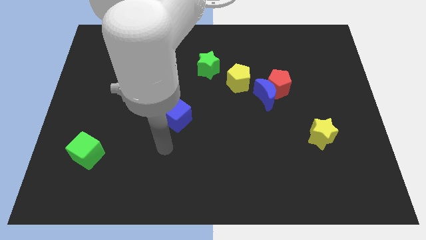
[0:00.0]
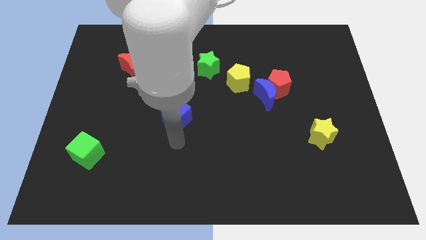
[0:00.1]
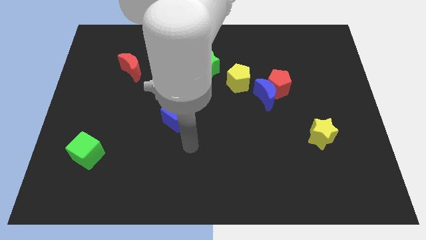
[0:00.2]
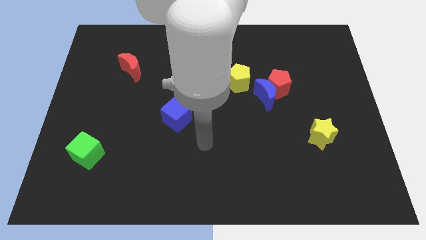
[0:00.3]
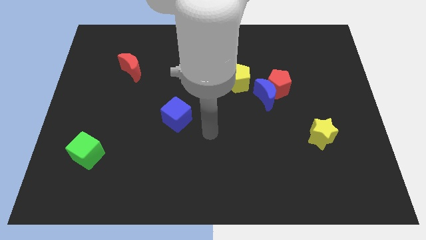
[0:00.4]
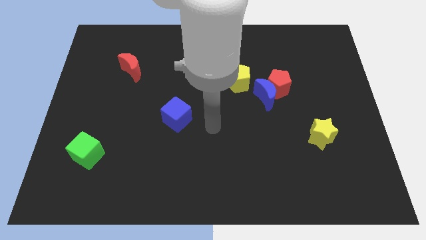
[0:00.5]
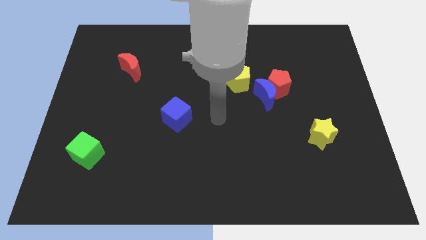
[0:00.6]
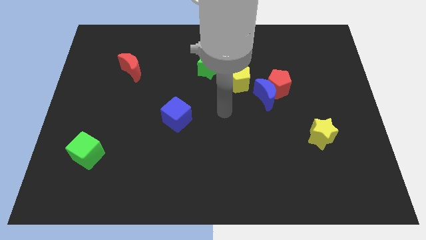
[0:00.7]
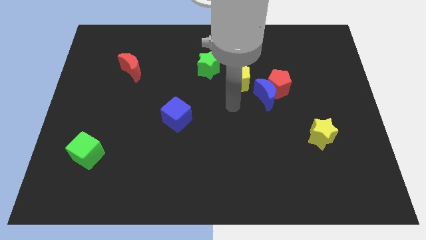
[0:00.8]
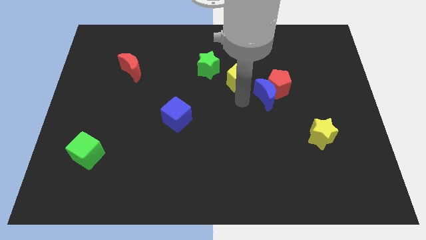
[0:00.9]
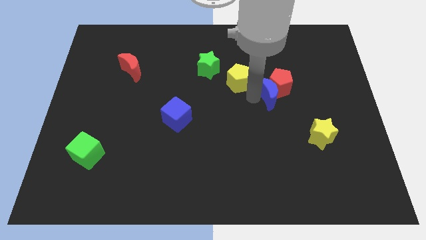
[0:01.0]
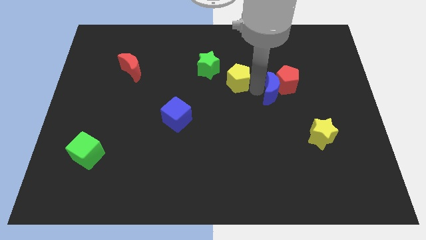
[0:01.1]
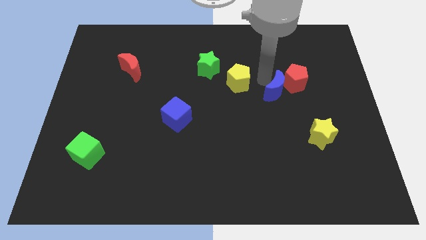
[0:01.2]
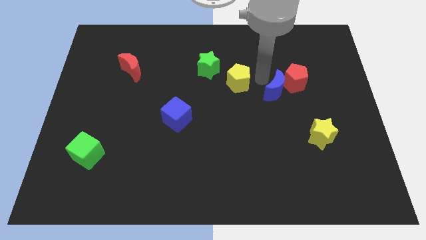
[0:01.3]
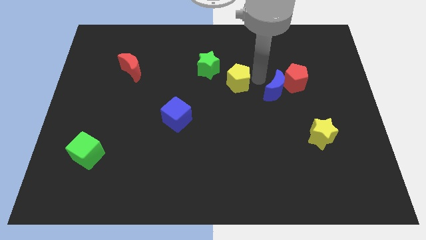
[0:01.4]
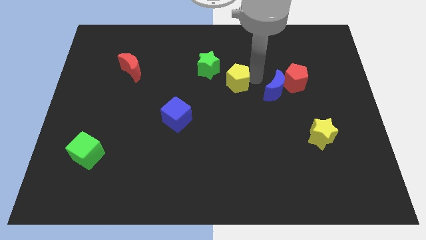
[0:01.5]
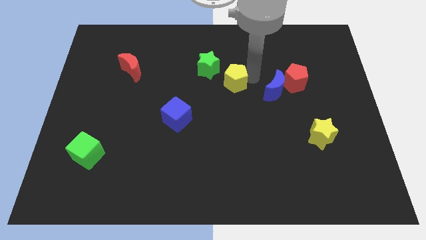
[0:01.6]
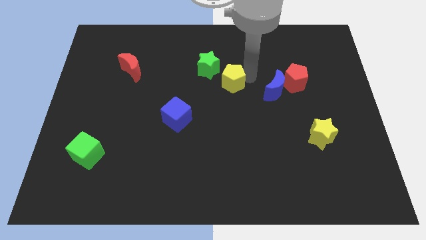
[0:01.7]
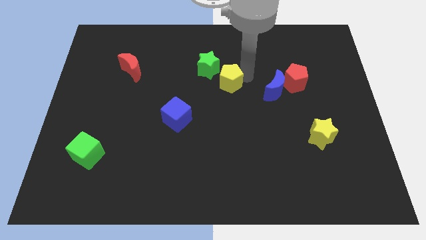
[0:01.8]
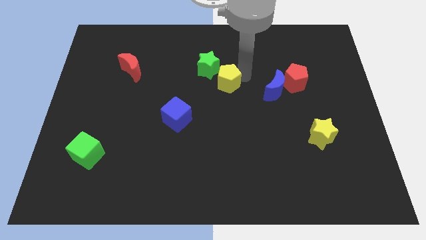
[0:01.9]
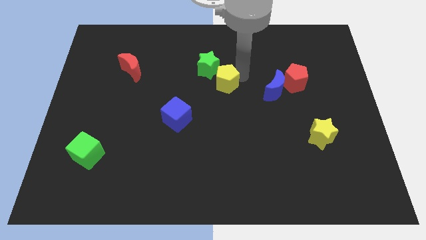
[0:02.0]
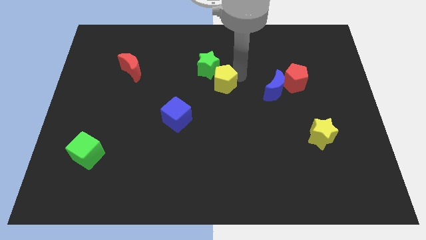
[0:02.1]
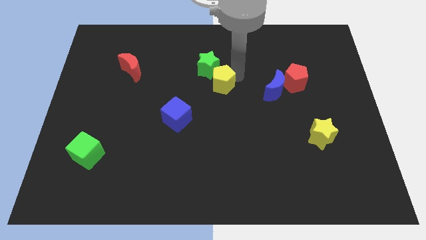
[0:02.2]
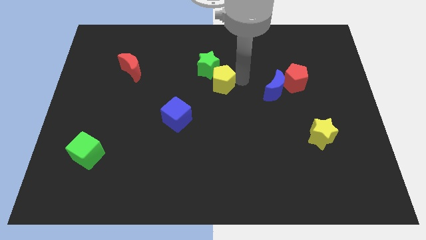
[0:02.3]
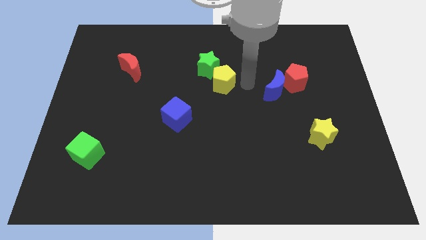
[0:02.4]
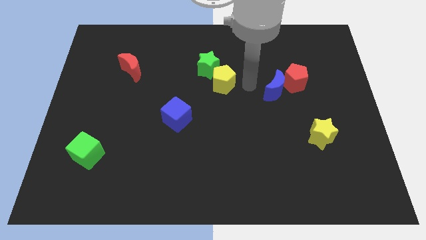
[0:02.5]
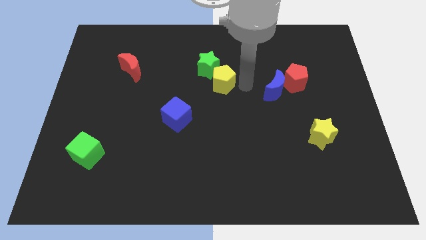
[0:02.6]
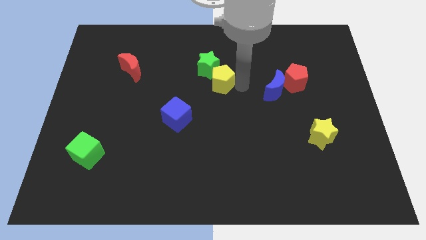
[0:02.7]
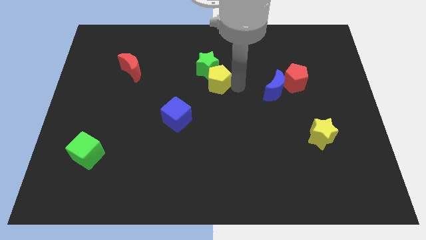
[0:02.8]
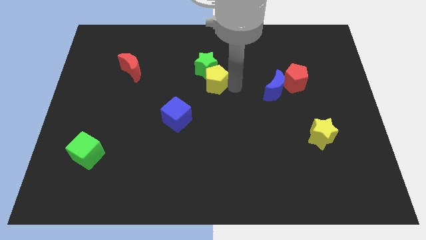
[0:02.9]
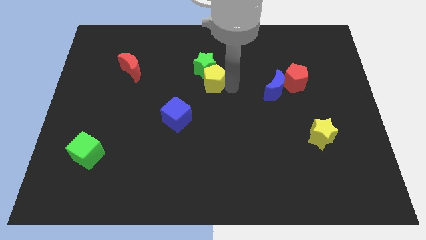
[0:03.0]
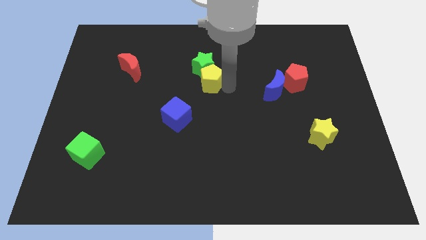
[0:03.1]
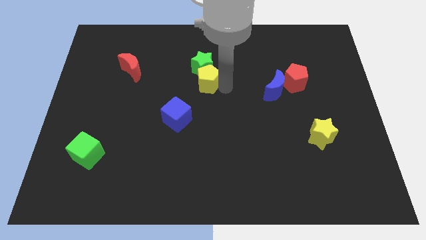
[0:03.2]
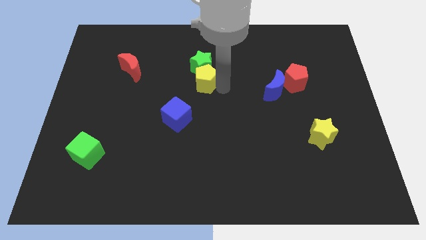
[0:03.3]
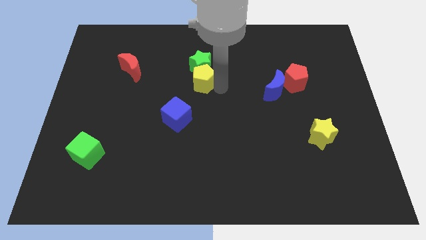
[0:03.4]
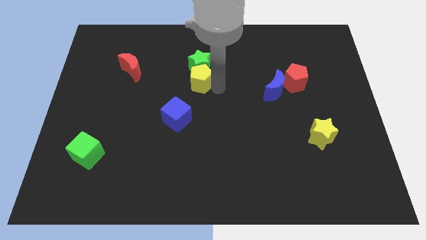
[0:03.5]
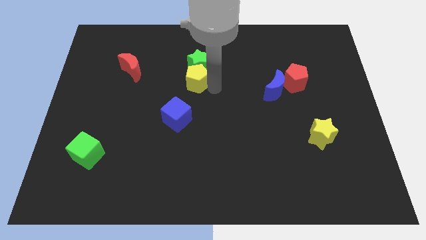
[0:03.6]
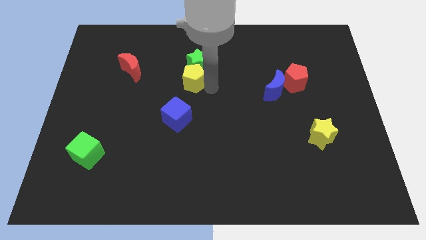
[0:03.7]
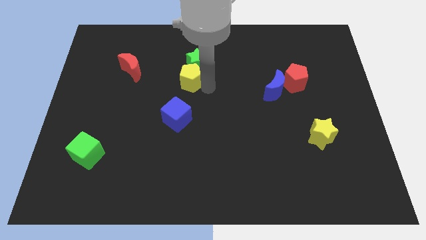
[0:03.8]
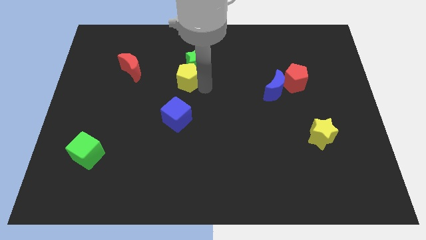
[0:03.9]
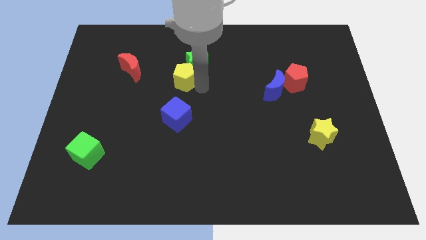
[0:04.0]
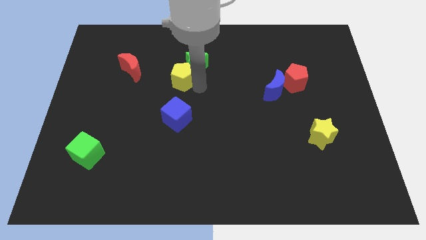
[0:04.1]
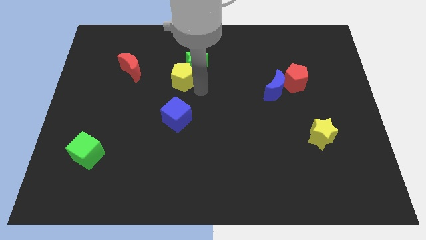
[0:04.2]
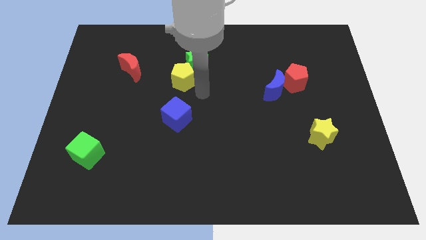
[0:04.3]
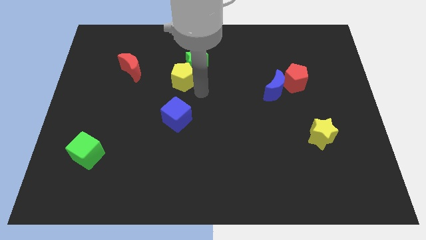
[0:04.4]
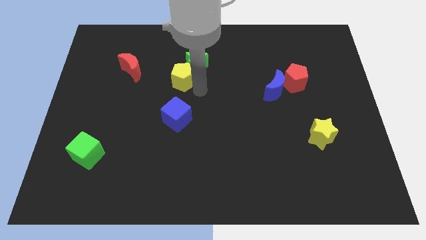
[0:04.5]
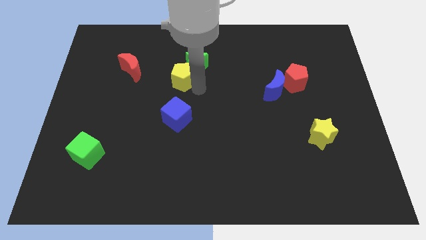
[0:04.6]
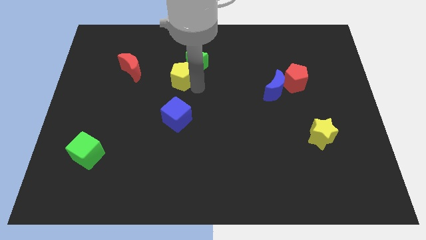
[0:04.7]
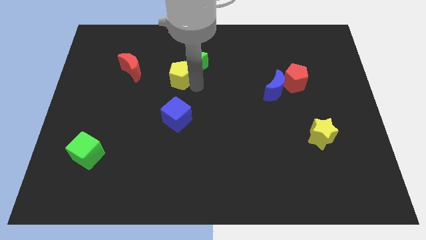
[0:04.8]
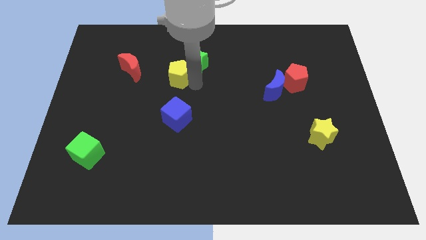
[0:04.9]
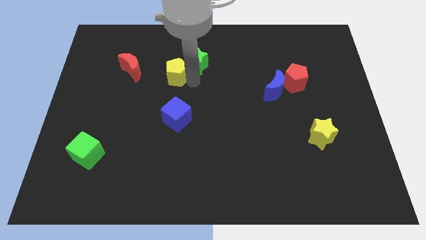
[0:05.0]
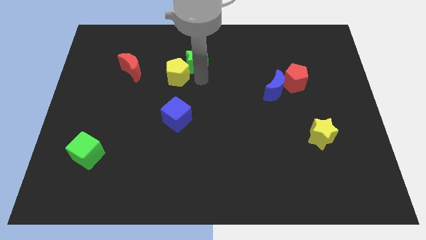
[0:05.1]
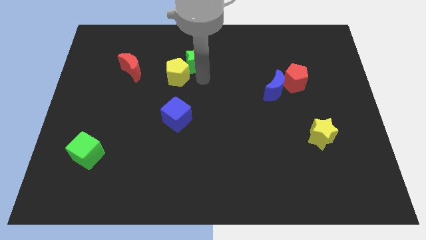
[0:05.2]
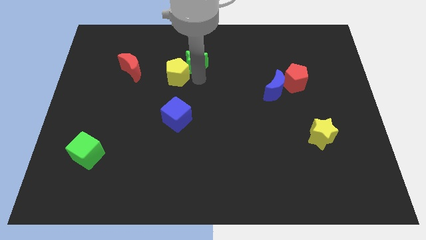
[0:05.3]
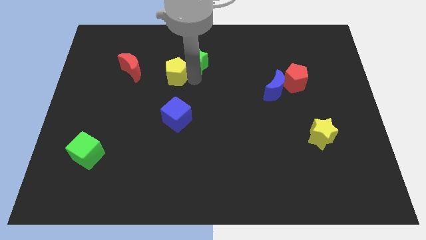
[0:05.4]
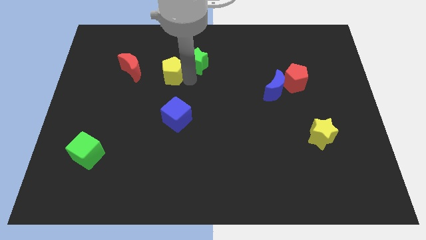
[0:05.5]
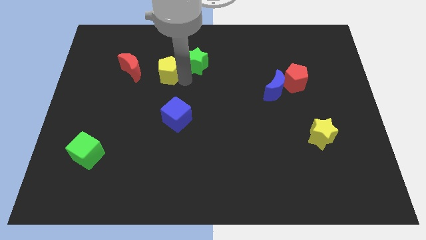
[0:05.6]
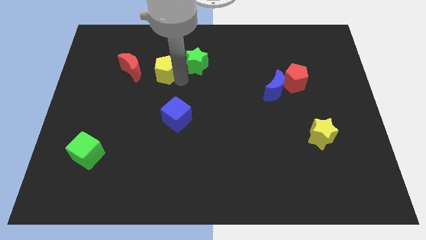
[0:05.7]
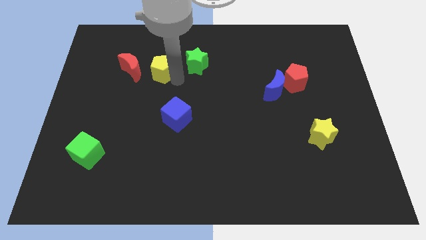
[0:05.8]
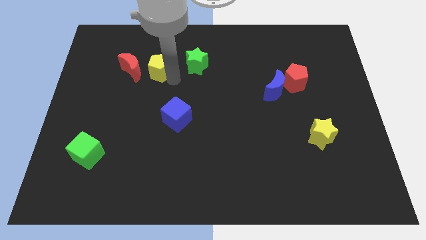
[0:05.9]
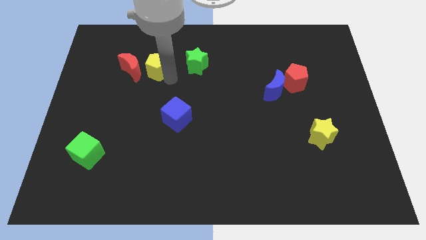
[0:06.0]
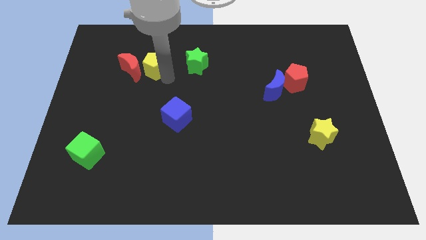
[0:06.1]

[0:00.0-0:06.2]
move the yellow pentagon next to the red moon

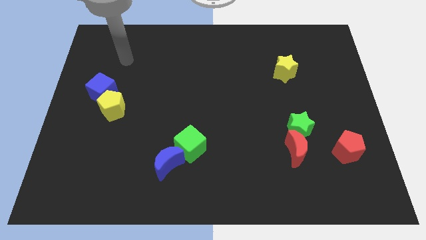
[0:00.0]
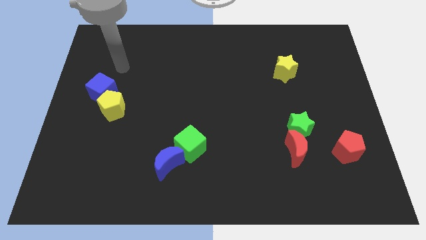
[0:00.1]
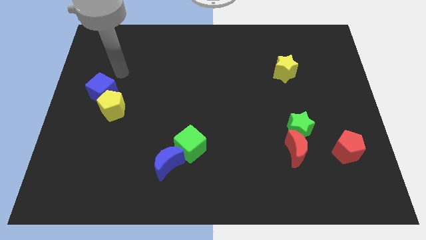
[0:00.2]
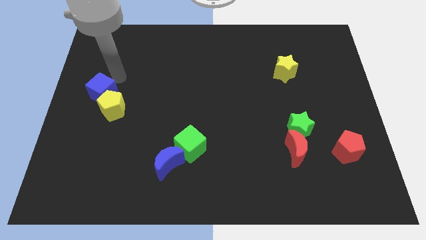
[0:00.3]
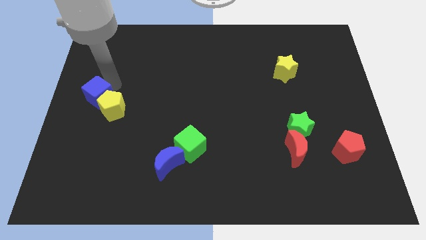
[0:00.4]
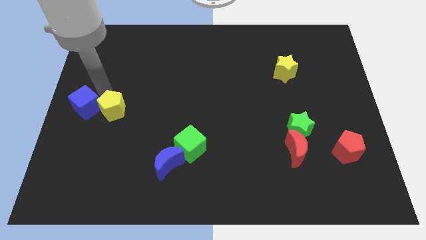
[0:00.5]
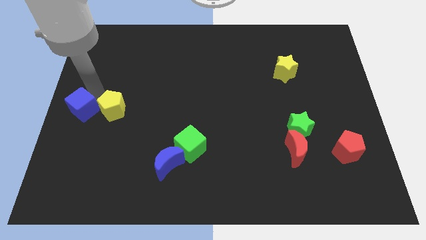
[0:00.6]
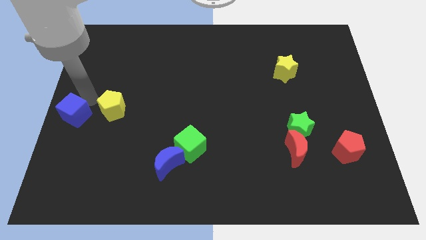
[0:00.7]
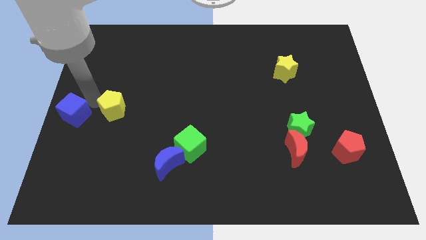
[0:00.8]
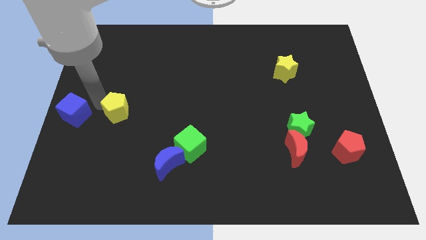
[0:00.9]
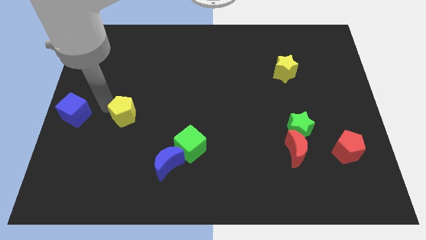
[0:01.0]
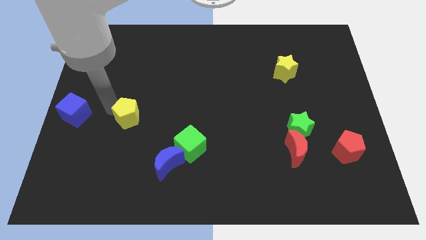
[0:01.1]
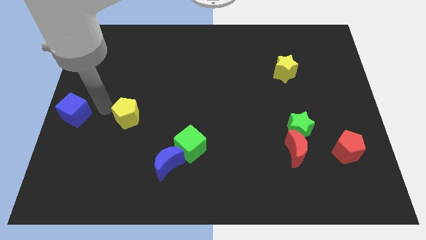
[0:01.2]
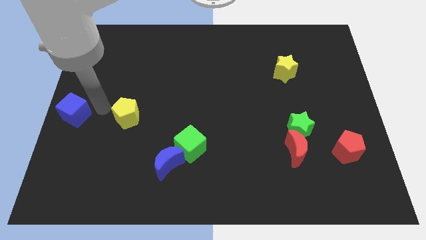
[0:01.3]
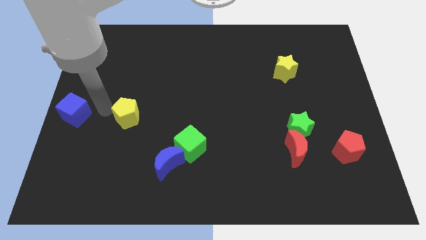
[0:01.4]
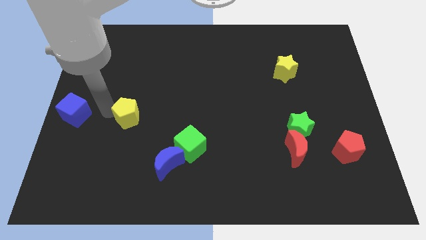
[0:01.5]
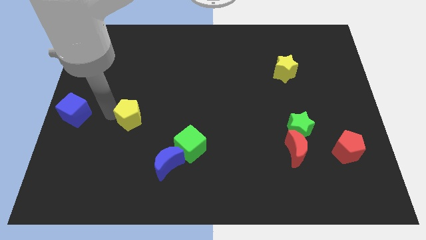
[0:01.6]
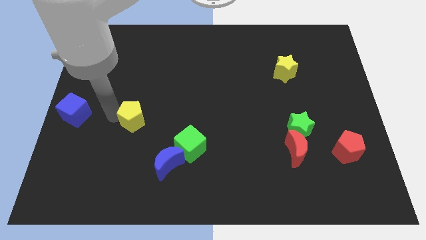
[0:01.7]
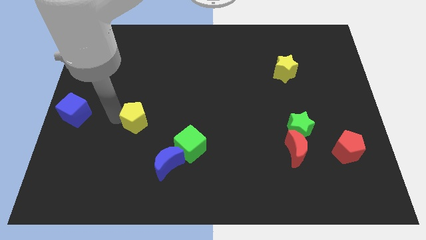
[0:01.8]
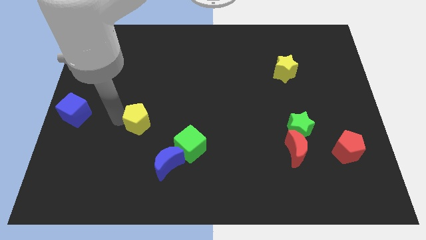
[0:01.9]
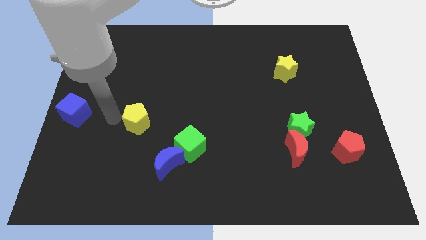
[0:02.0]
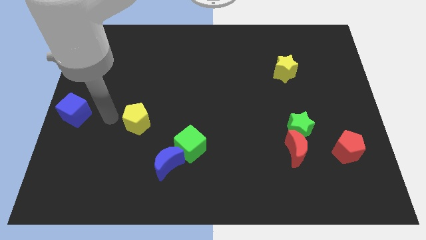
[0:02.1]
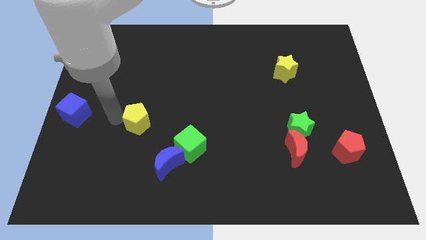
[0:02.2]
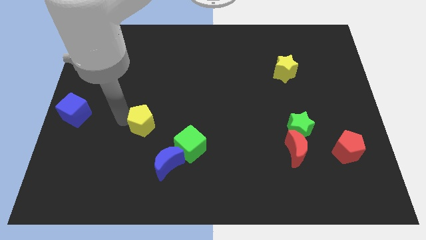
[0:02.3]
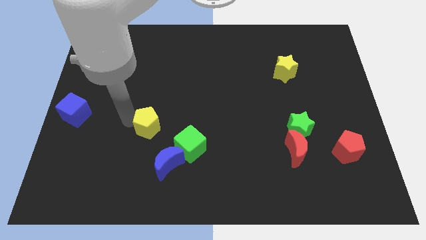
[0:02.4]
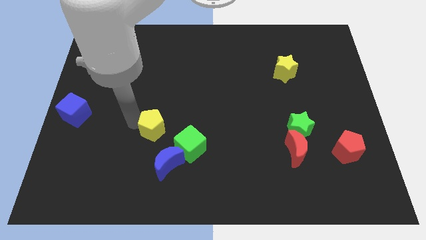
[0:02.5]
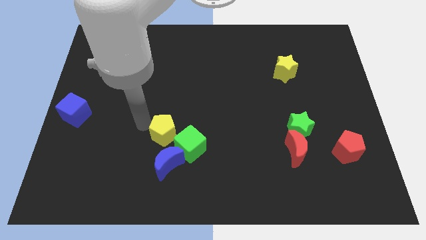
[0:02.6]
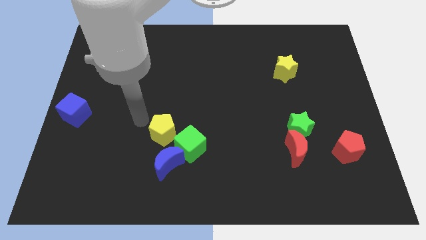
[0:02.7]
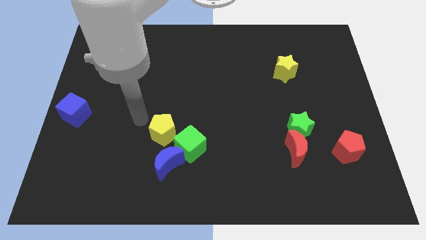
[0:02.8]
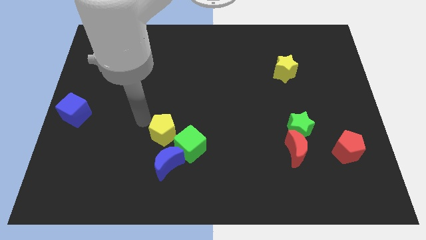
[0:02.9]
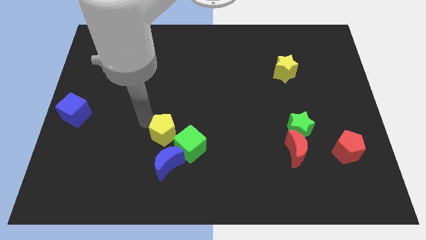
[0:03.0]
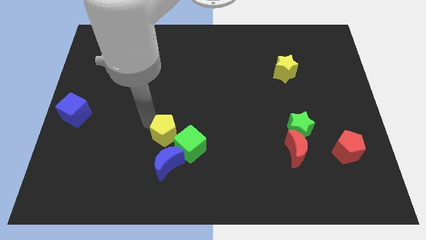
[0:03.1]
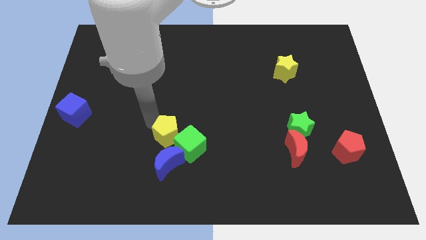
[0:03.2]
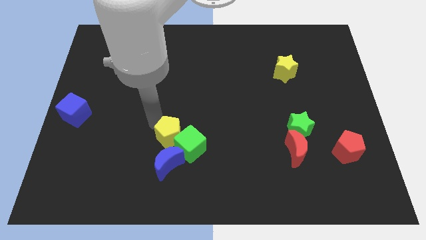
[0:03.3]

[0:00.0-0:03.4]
push the yellow pentagon next to the green cube
